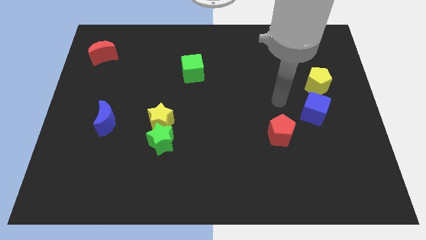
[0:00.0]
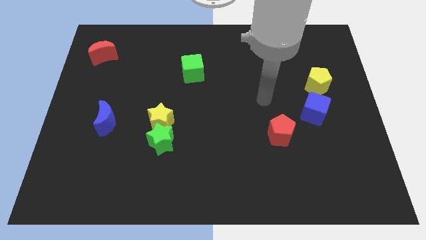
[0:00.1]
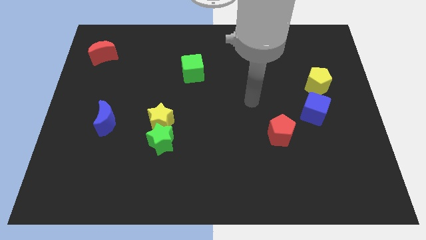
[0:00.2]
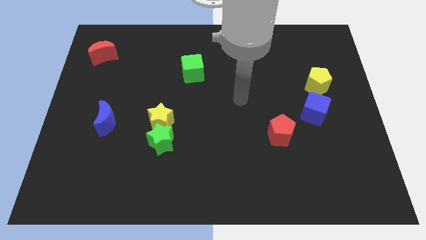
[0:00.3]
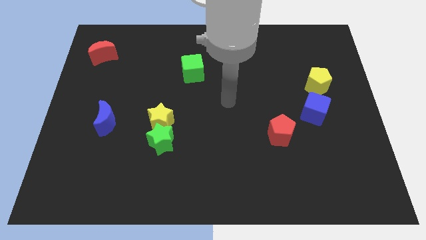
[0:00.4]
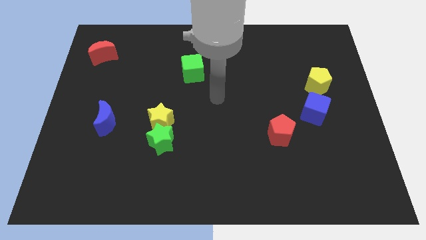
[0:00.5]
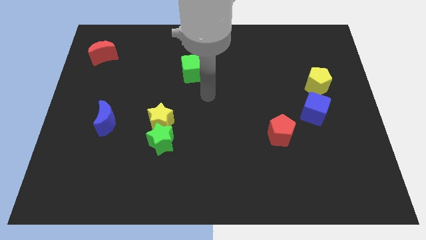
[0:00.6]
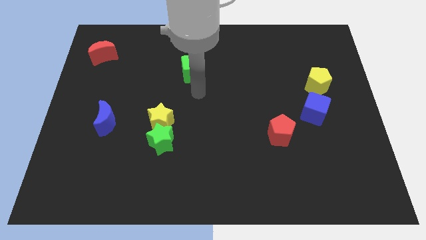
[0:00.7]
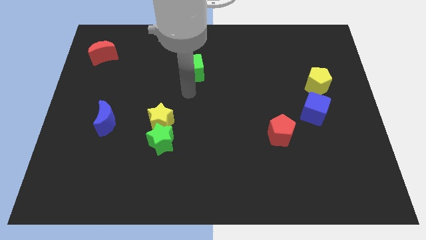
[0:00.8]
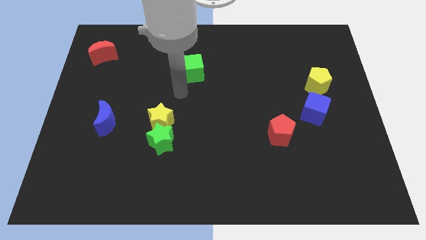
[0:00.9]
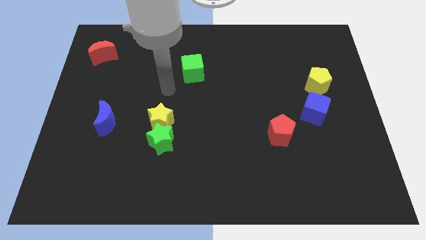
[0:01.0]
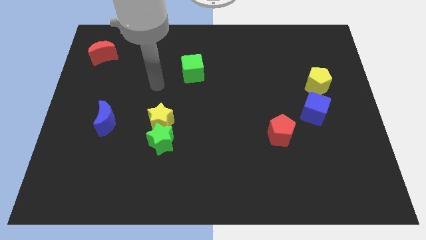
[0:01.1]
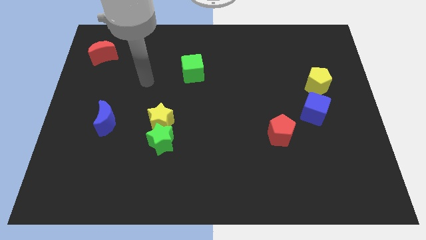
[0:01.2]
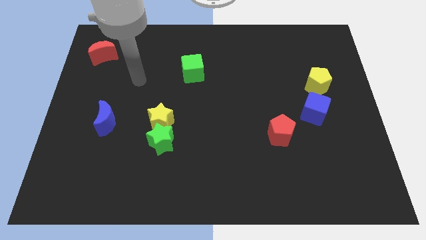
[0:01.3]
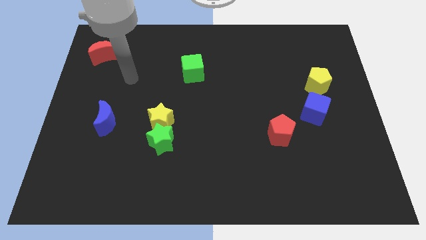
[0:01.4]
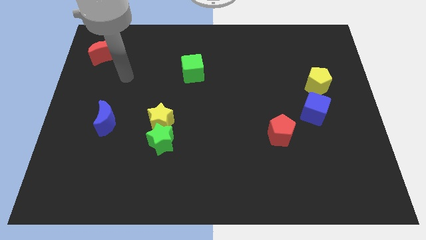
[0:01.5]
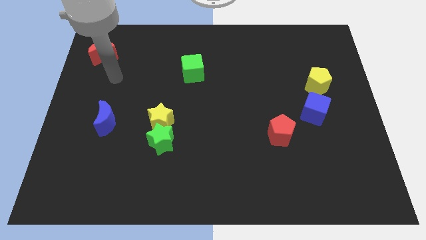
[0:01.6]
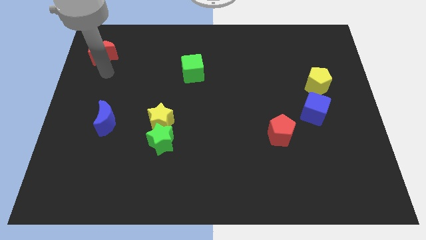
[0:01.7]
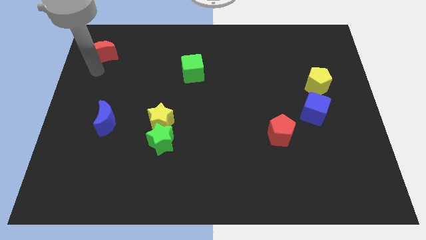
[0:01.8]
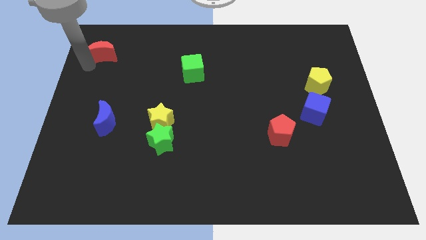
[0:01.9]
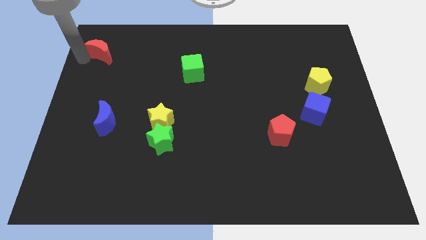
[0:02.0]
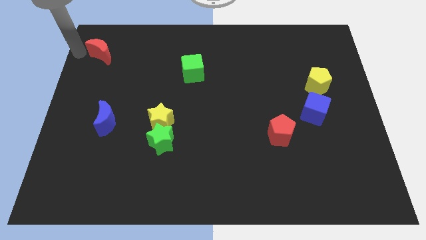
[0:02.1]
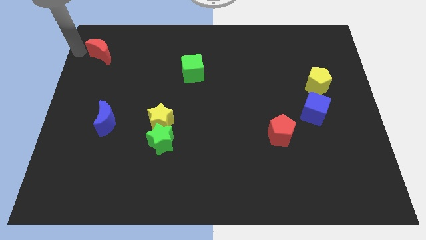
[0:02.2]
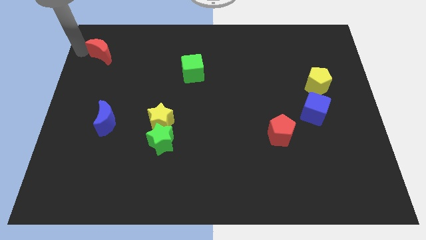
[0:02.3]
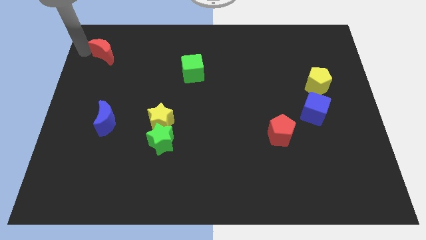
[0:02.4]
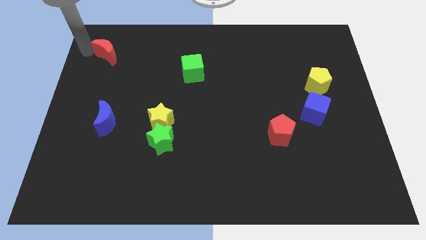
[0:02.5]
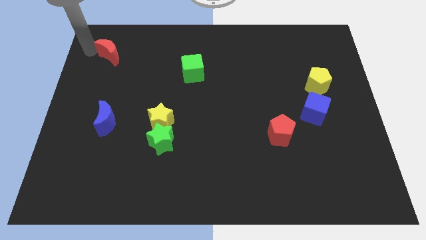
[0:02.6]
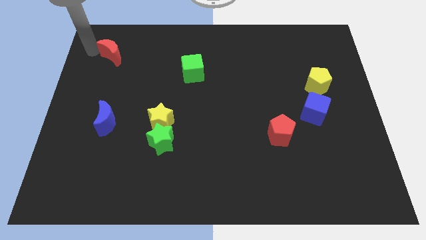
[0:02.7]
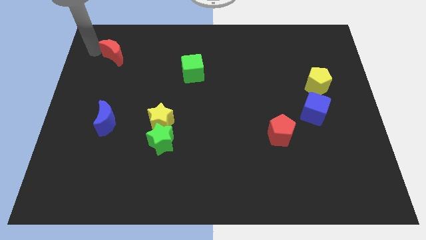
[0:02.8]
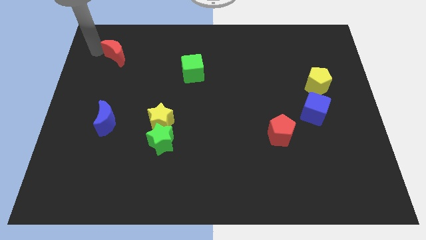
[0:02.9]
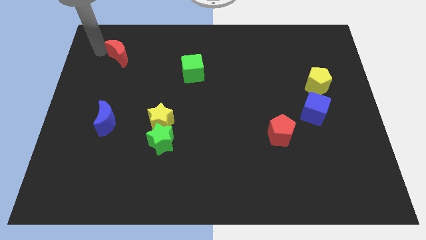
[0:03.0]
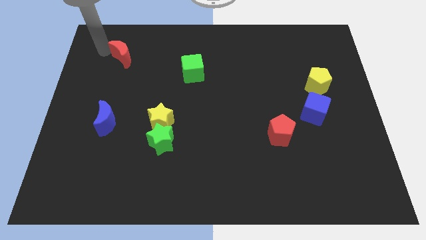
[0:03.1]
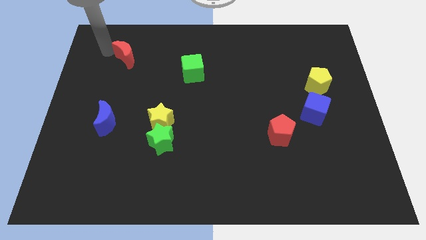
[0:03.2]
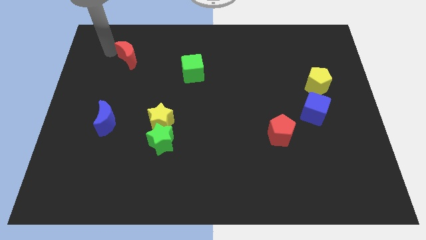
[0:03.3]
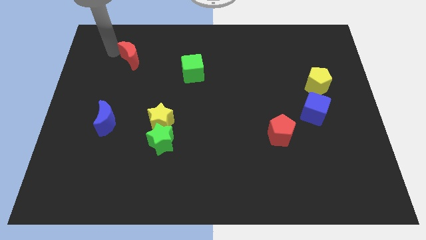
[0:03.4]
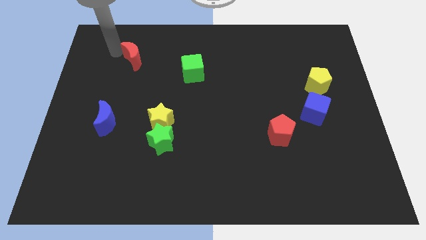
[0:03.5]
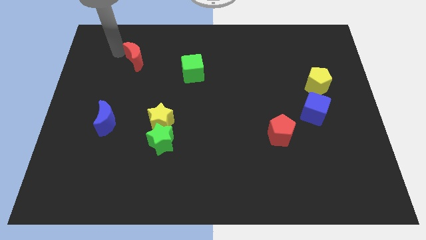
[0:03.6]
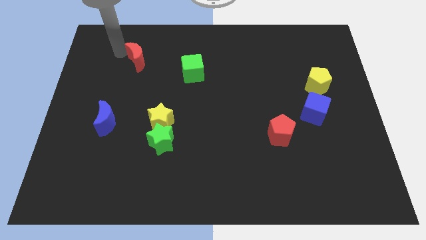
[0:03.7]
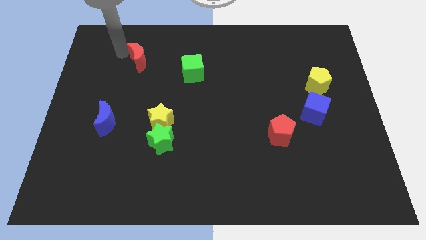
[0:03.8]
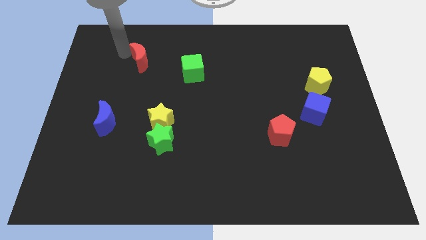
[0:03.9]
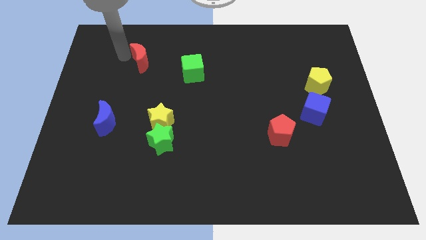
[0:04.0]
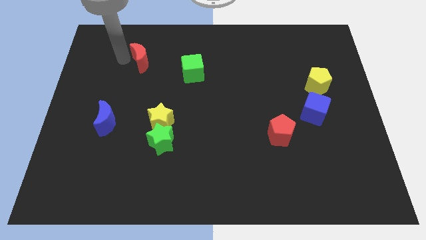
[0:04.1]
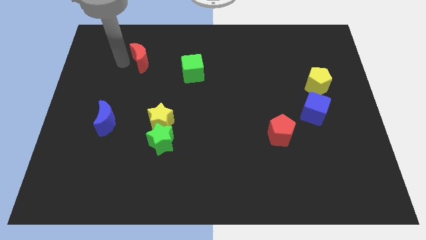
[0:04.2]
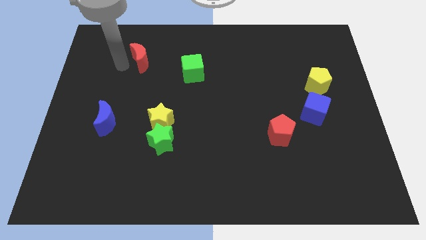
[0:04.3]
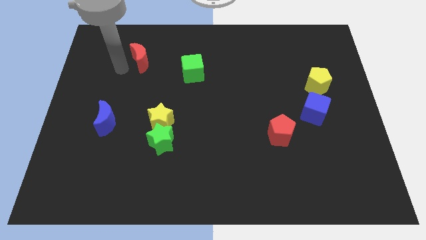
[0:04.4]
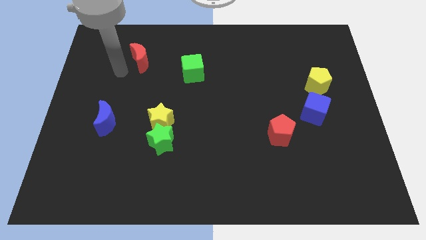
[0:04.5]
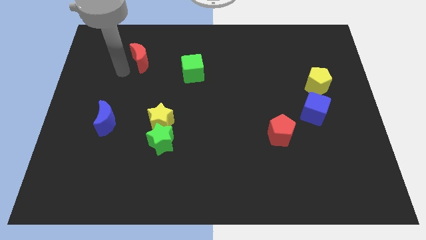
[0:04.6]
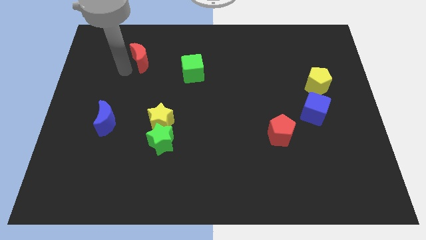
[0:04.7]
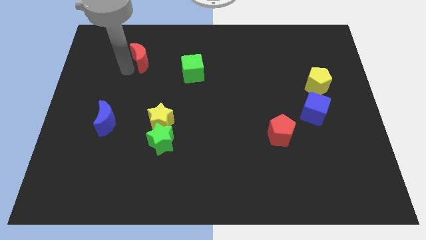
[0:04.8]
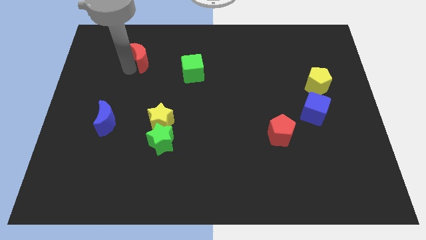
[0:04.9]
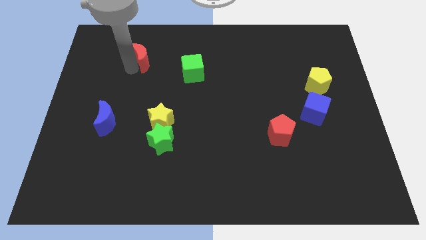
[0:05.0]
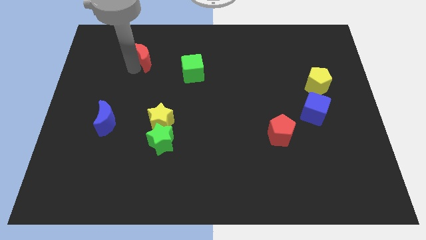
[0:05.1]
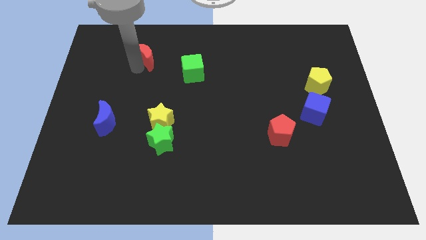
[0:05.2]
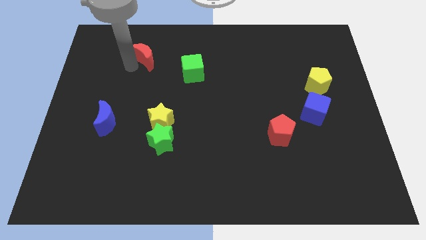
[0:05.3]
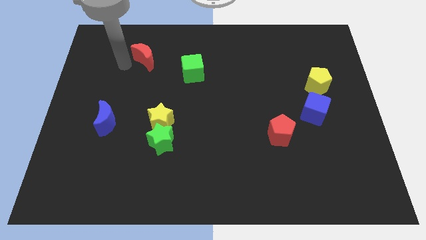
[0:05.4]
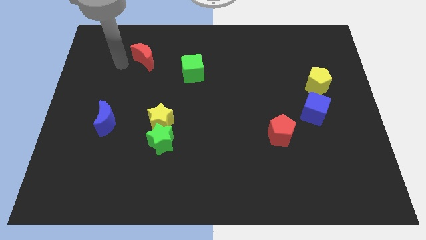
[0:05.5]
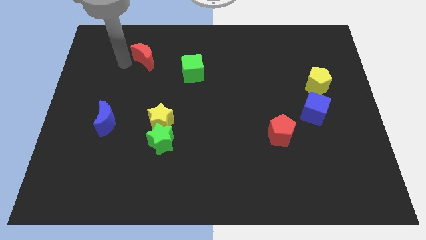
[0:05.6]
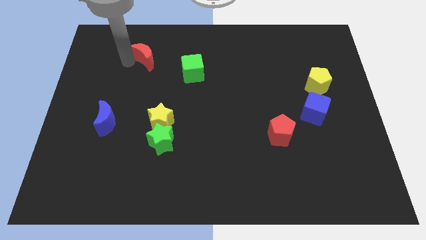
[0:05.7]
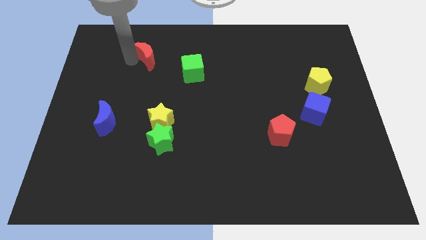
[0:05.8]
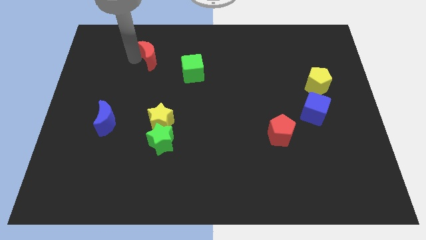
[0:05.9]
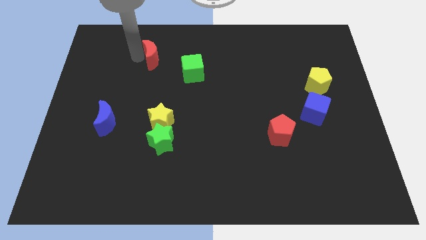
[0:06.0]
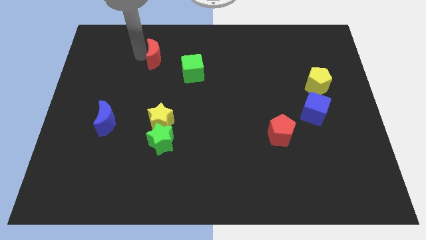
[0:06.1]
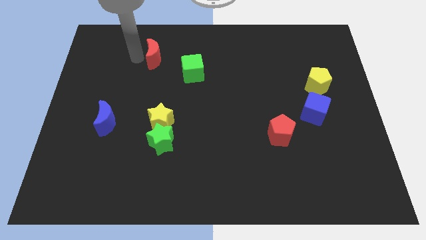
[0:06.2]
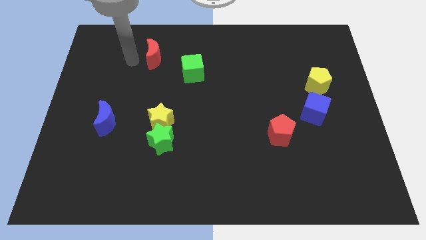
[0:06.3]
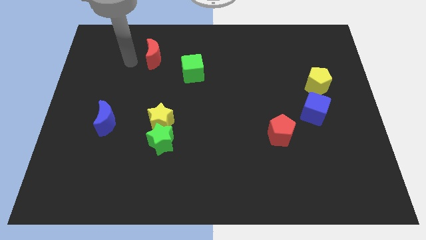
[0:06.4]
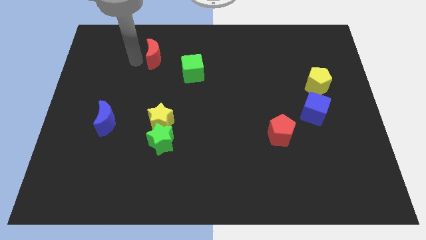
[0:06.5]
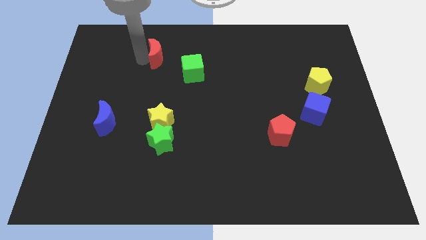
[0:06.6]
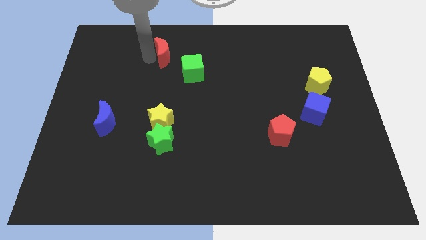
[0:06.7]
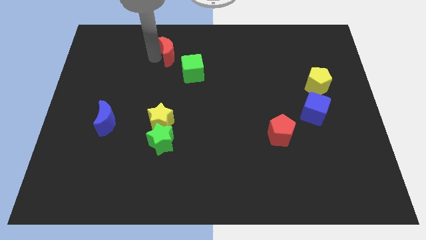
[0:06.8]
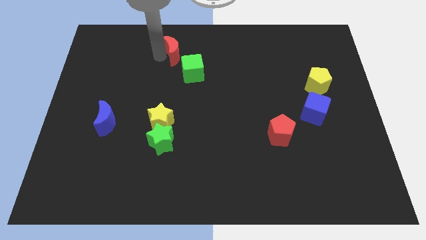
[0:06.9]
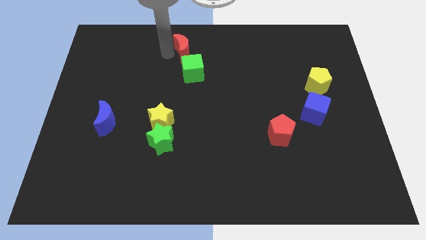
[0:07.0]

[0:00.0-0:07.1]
move the red moon to the right

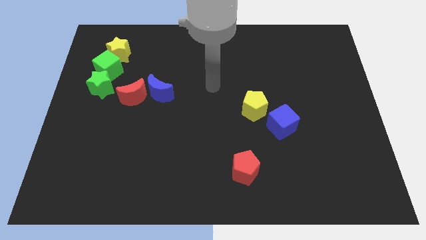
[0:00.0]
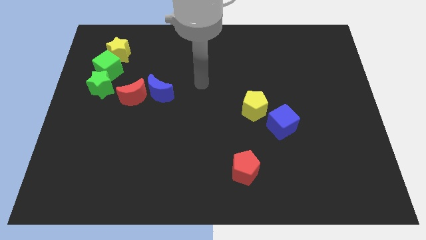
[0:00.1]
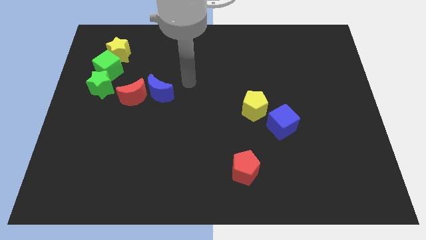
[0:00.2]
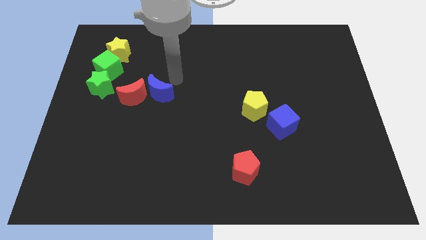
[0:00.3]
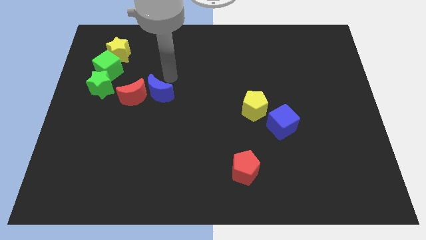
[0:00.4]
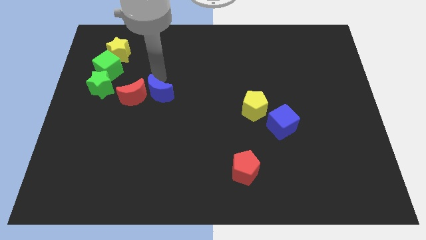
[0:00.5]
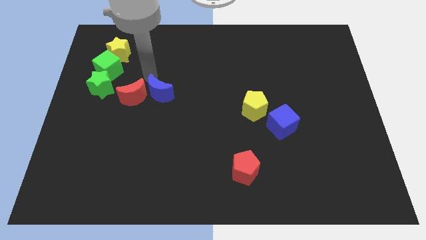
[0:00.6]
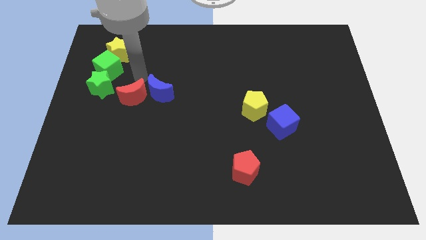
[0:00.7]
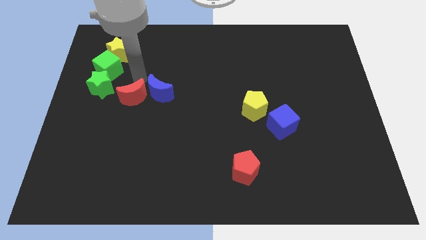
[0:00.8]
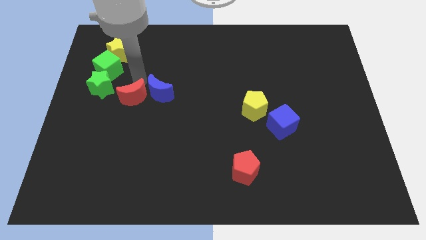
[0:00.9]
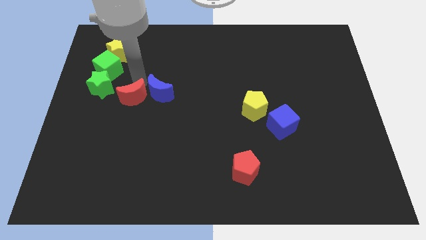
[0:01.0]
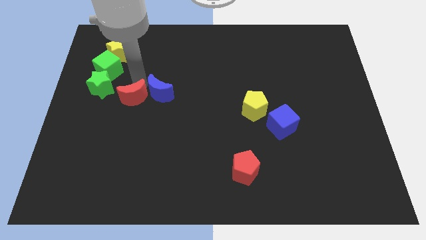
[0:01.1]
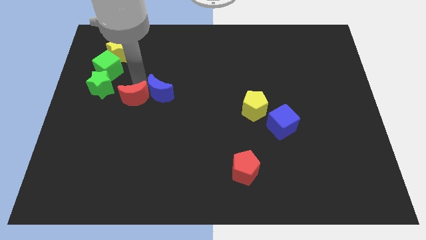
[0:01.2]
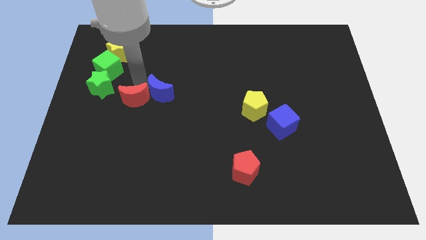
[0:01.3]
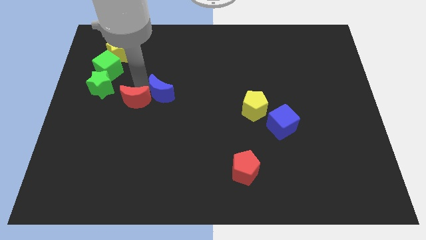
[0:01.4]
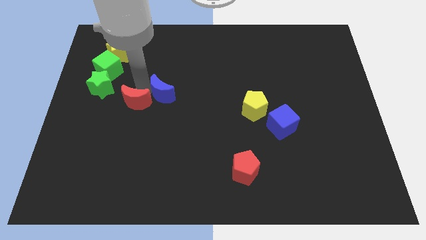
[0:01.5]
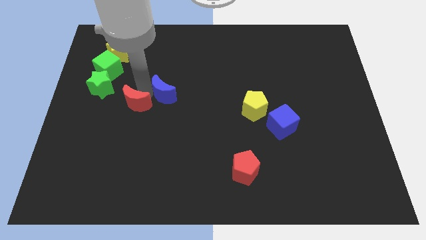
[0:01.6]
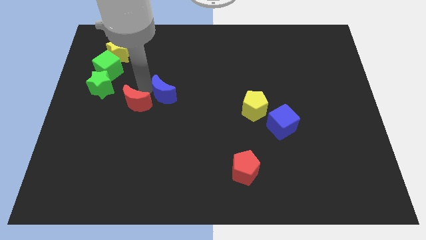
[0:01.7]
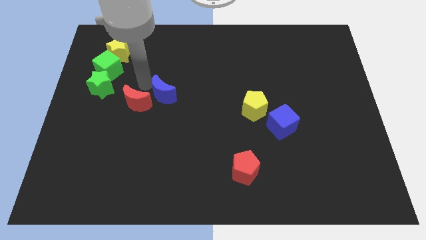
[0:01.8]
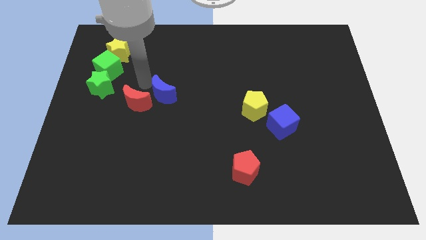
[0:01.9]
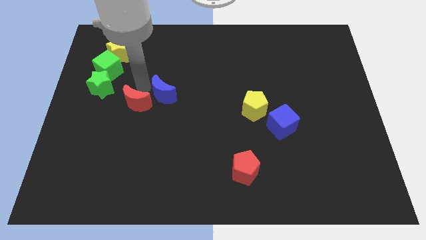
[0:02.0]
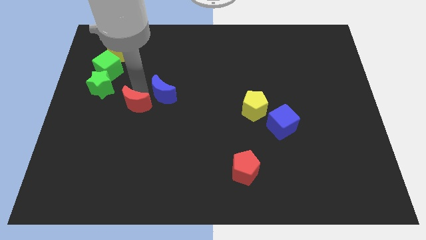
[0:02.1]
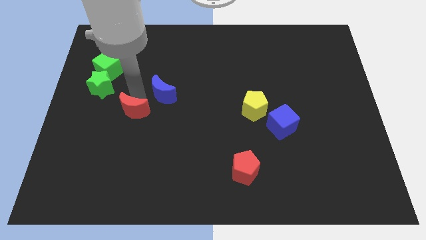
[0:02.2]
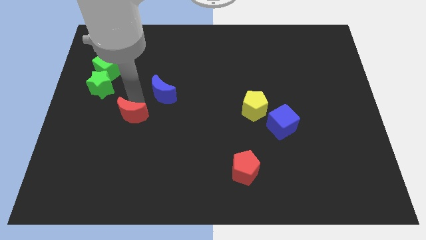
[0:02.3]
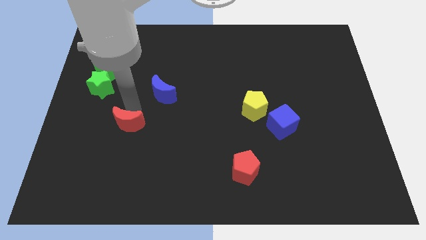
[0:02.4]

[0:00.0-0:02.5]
push the red moon a bit downwards
